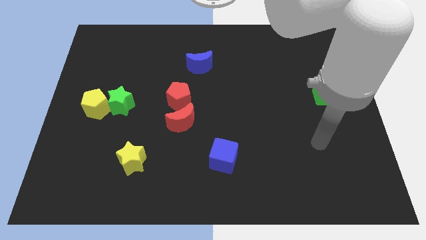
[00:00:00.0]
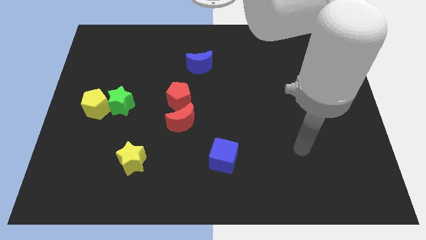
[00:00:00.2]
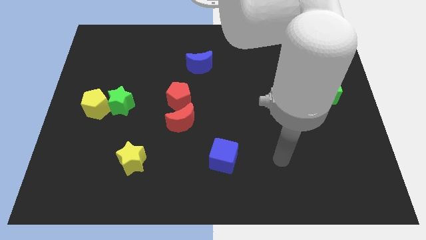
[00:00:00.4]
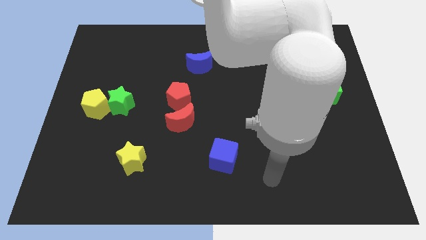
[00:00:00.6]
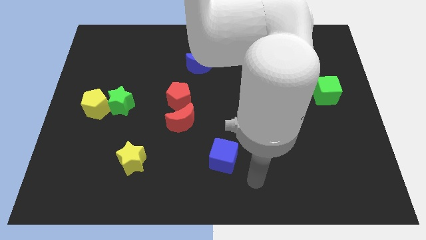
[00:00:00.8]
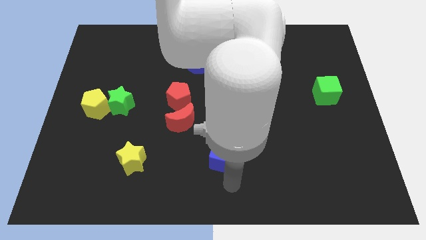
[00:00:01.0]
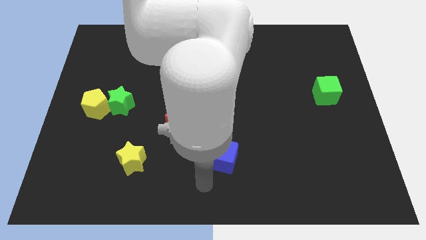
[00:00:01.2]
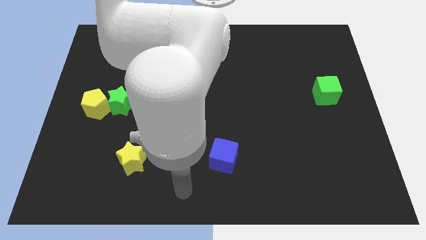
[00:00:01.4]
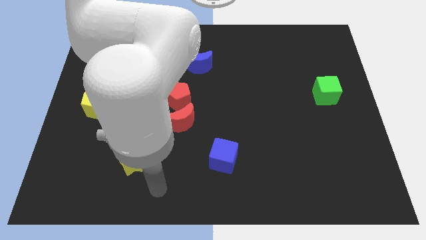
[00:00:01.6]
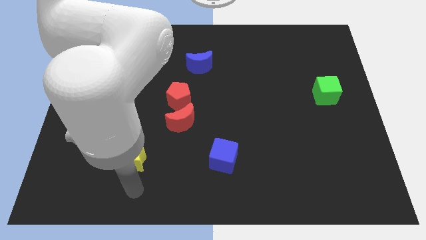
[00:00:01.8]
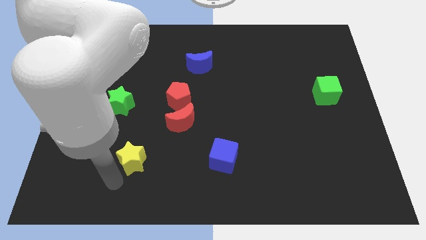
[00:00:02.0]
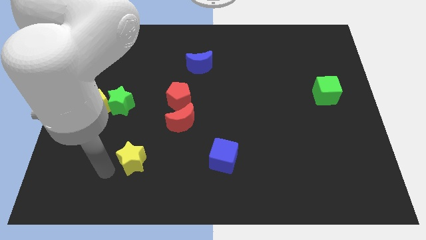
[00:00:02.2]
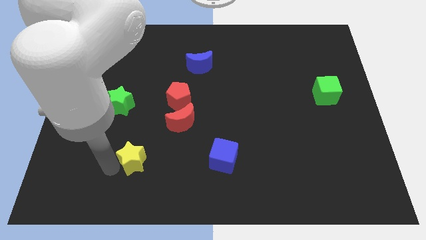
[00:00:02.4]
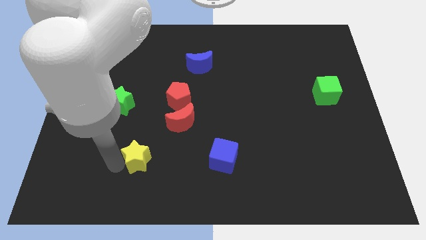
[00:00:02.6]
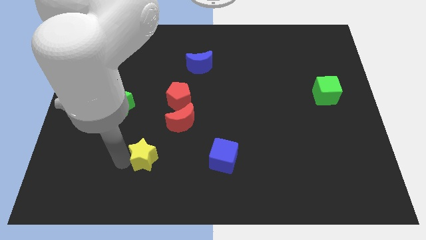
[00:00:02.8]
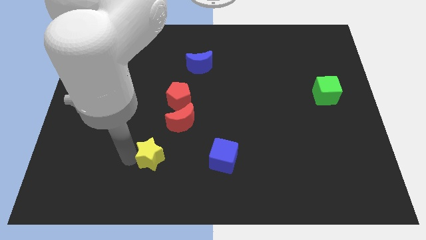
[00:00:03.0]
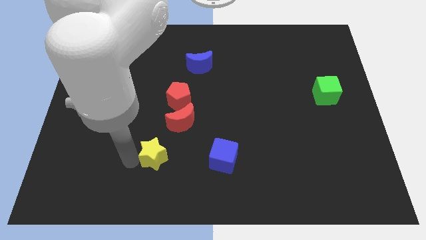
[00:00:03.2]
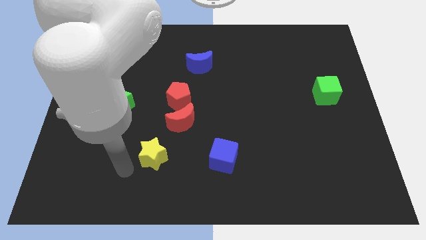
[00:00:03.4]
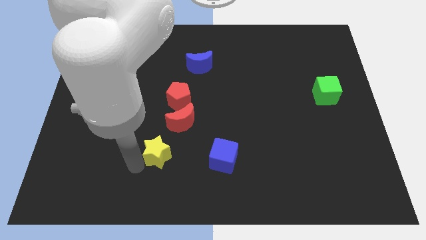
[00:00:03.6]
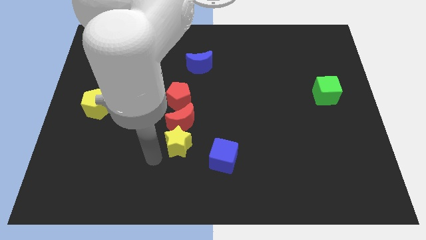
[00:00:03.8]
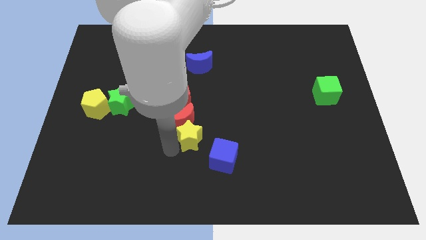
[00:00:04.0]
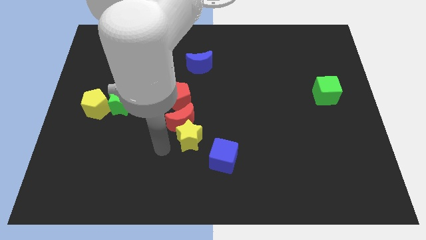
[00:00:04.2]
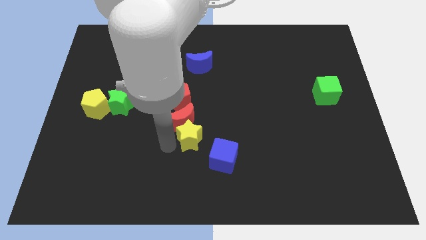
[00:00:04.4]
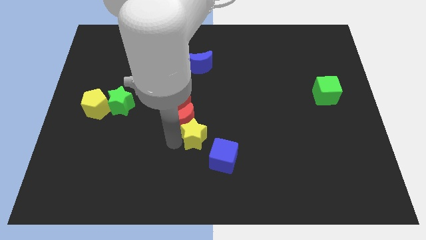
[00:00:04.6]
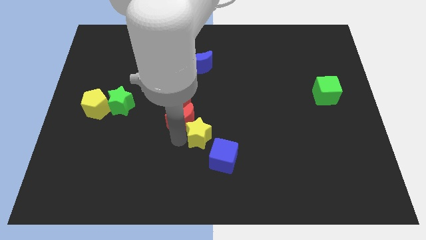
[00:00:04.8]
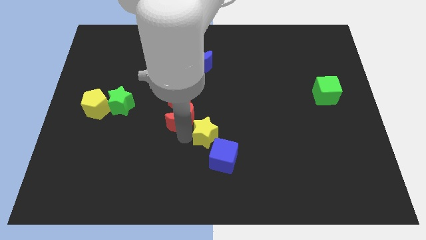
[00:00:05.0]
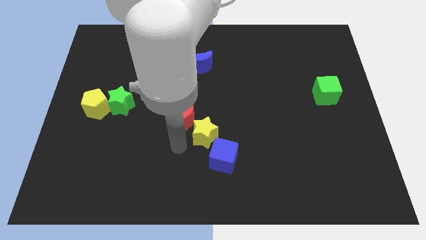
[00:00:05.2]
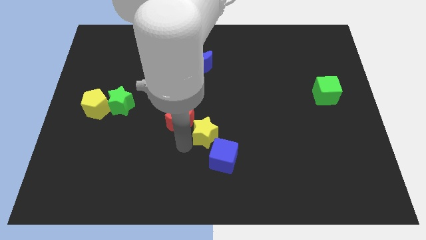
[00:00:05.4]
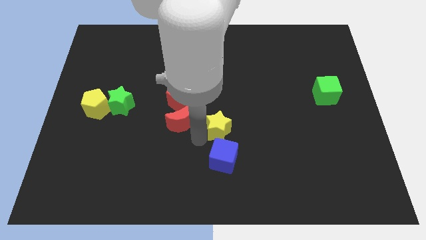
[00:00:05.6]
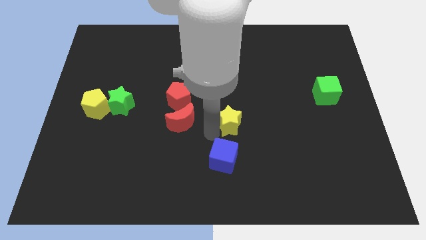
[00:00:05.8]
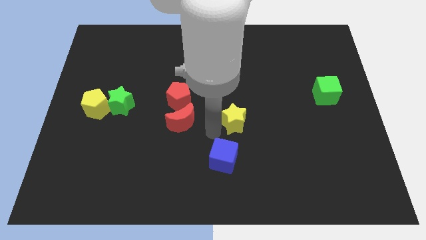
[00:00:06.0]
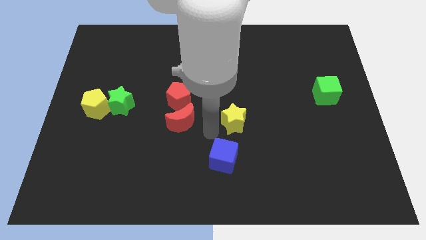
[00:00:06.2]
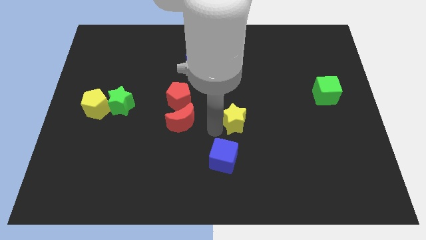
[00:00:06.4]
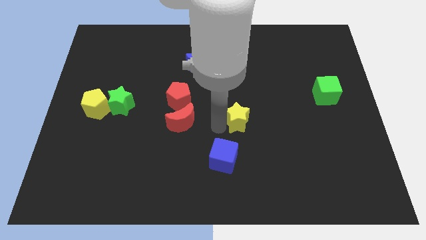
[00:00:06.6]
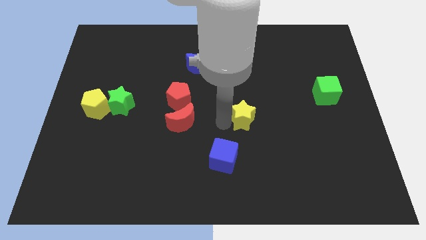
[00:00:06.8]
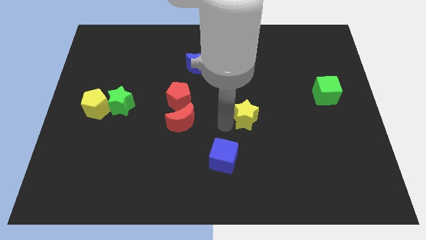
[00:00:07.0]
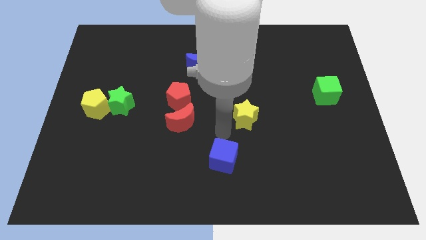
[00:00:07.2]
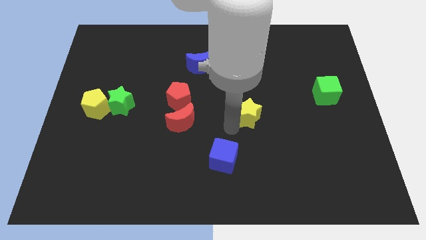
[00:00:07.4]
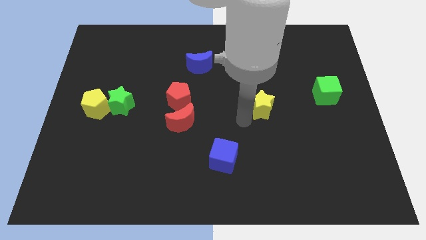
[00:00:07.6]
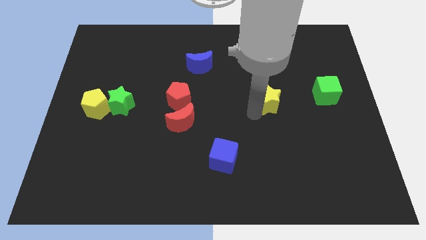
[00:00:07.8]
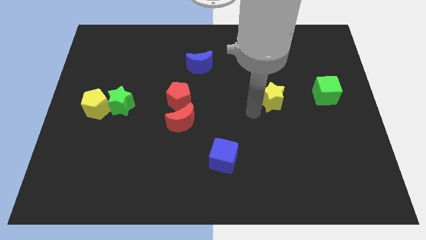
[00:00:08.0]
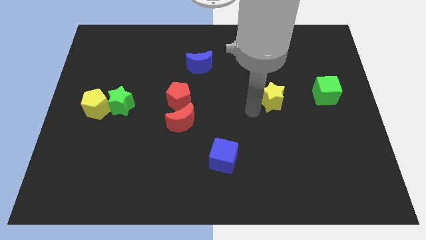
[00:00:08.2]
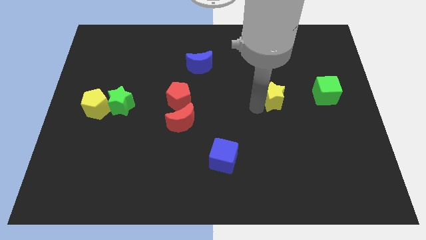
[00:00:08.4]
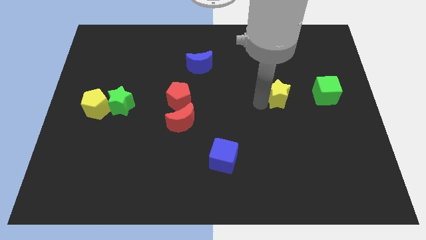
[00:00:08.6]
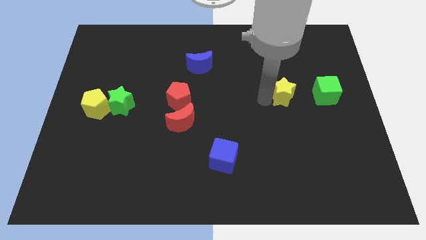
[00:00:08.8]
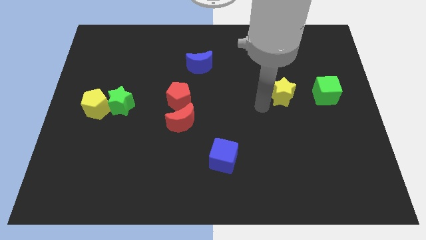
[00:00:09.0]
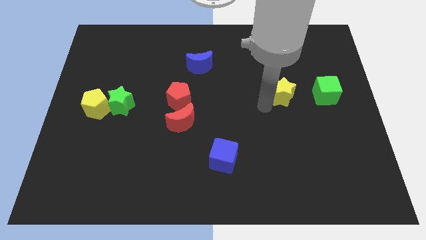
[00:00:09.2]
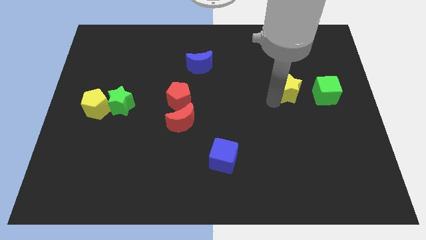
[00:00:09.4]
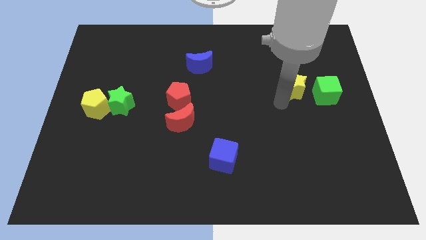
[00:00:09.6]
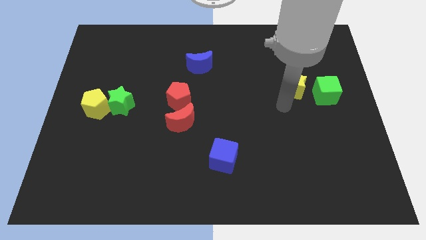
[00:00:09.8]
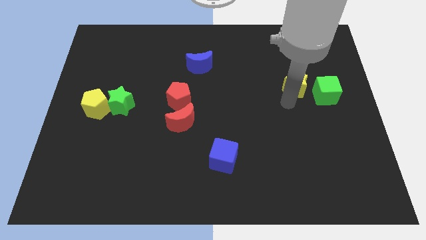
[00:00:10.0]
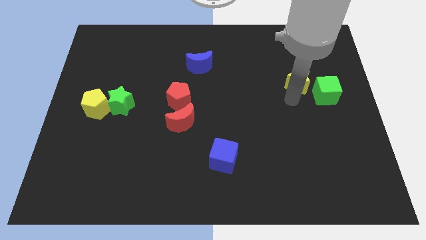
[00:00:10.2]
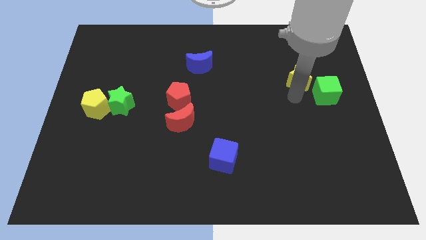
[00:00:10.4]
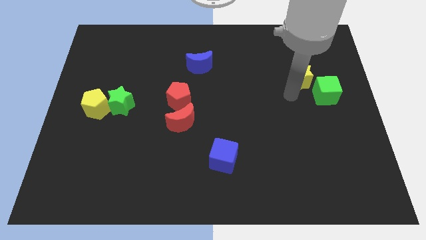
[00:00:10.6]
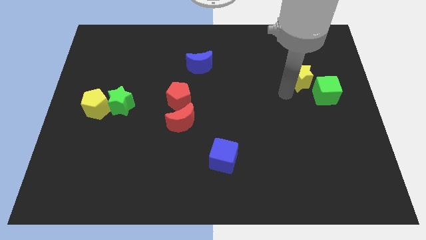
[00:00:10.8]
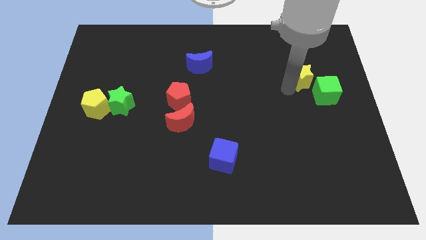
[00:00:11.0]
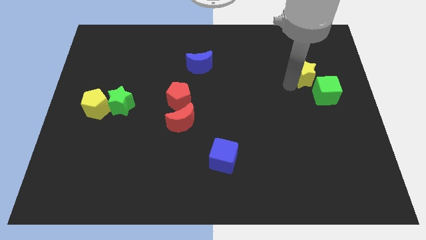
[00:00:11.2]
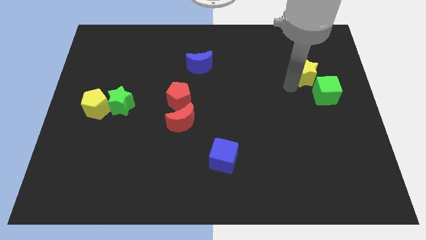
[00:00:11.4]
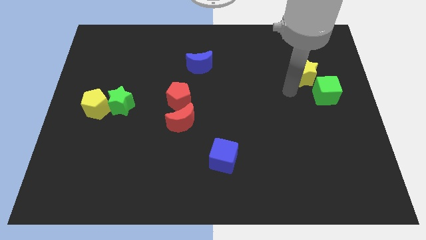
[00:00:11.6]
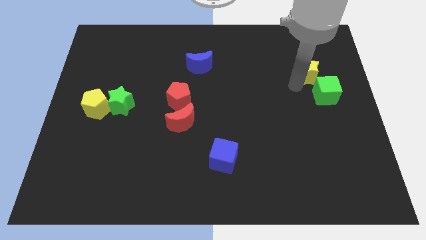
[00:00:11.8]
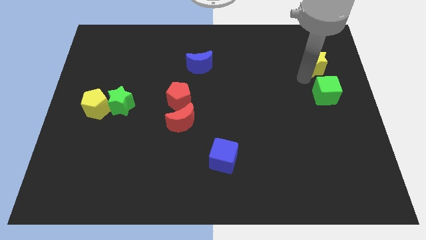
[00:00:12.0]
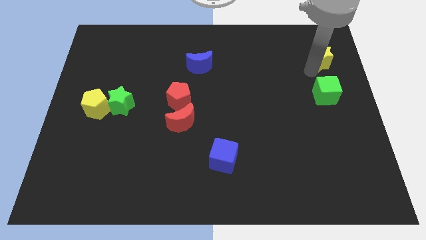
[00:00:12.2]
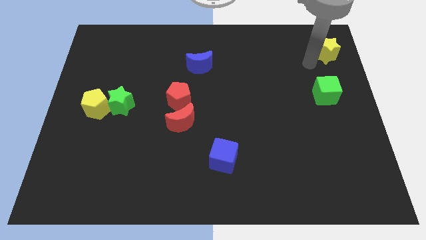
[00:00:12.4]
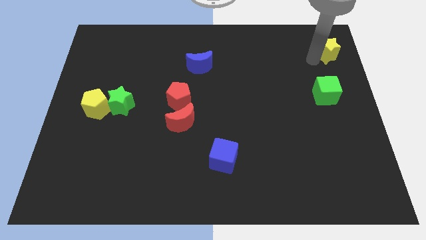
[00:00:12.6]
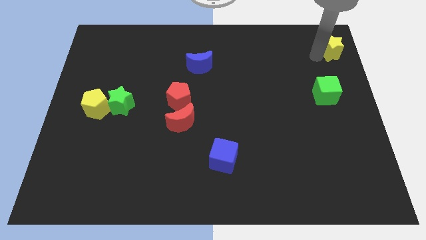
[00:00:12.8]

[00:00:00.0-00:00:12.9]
slide the yellow star to the upper right corner
